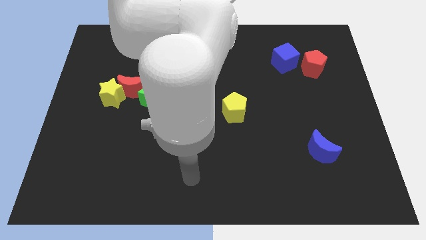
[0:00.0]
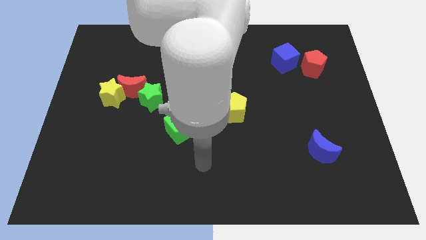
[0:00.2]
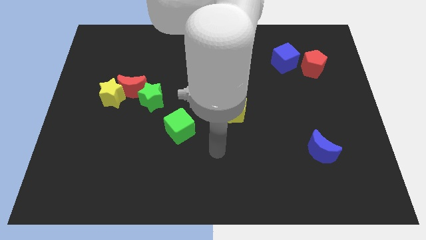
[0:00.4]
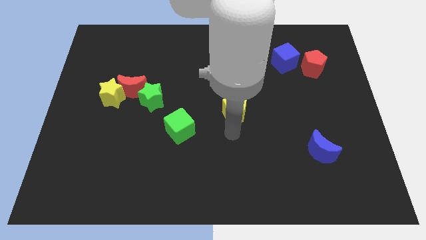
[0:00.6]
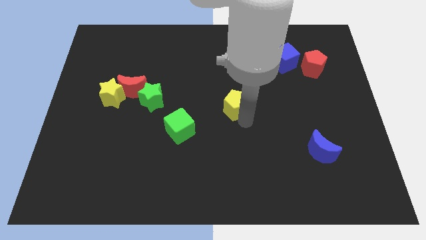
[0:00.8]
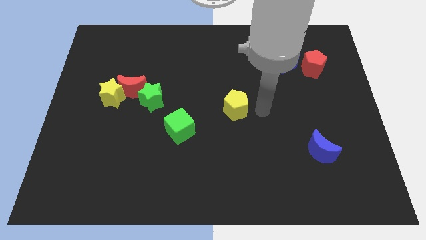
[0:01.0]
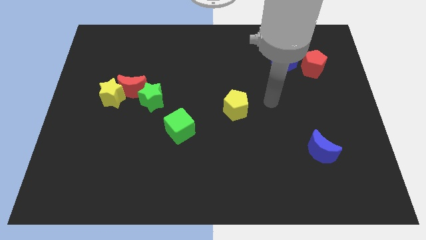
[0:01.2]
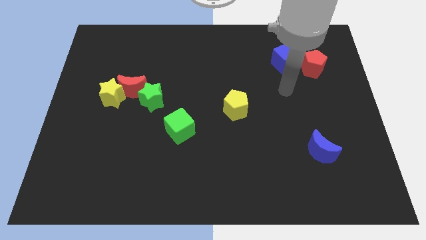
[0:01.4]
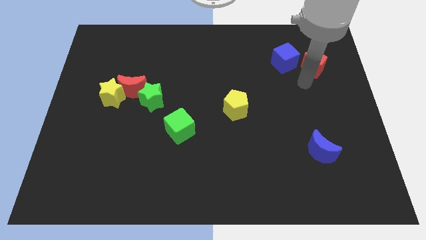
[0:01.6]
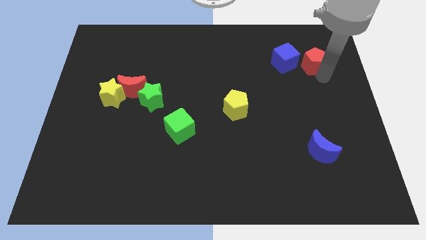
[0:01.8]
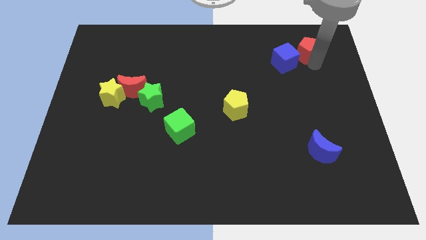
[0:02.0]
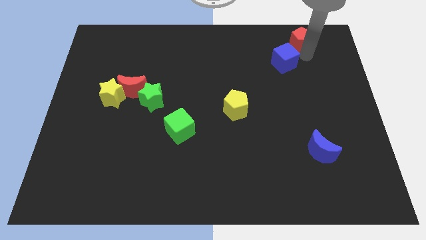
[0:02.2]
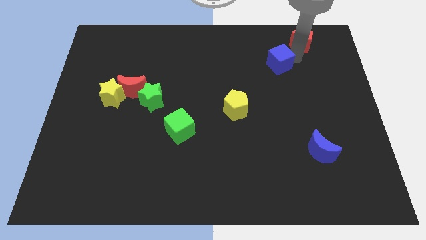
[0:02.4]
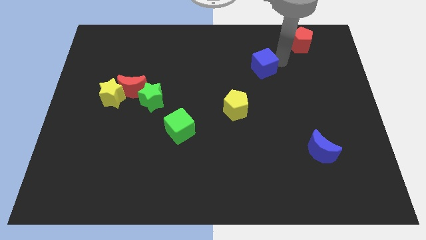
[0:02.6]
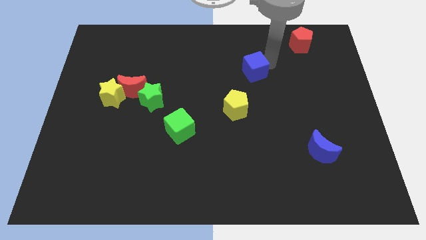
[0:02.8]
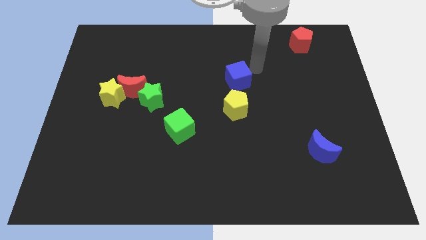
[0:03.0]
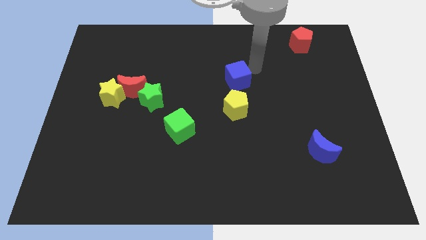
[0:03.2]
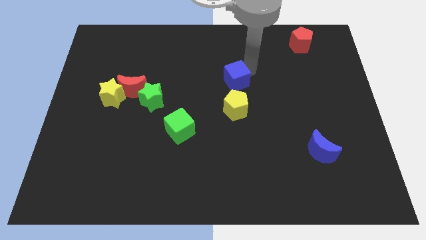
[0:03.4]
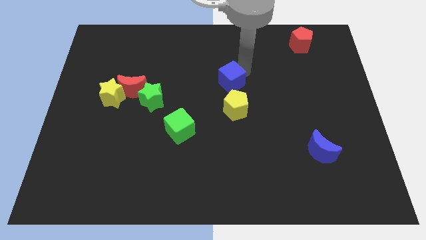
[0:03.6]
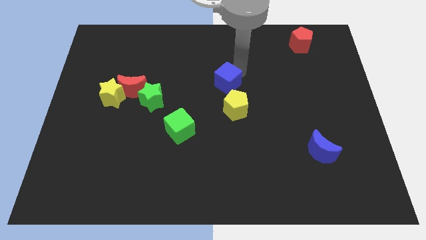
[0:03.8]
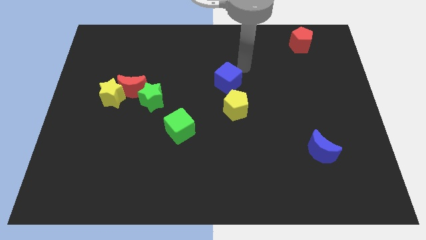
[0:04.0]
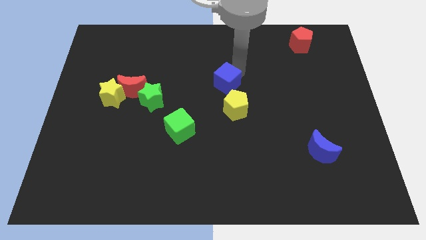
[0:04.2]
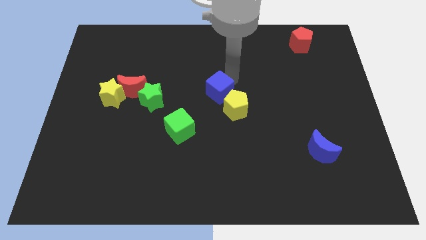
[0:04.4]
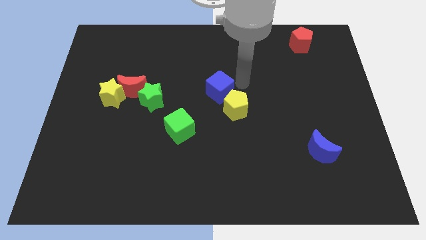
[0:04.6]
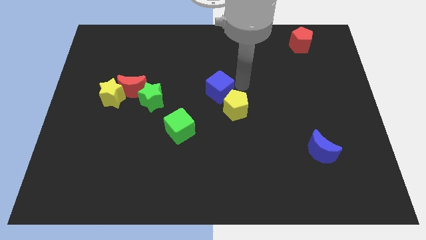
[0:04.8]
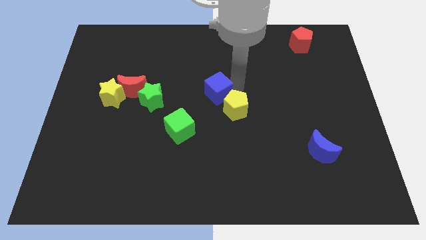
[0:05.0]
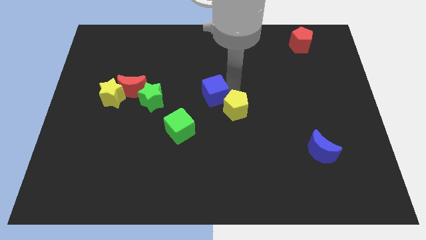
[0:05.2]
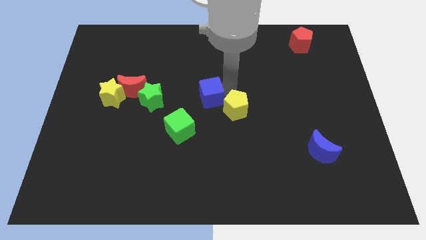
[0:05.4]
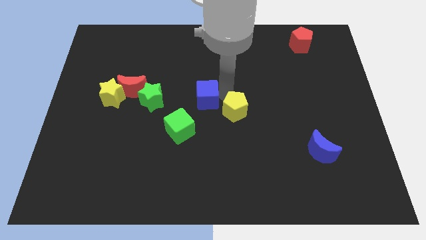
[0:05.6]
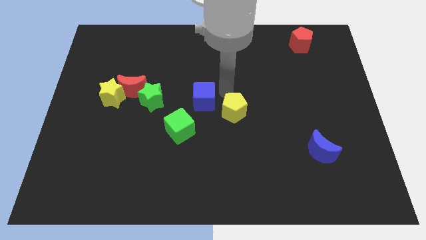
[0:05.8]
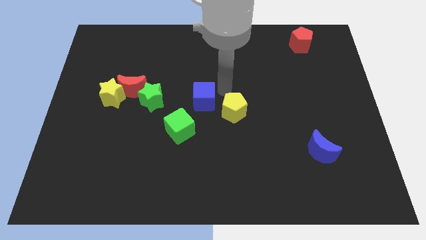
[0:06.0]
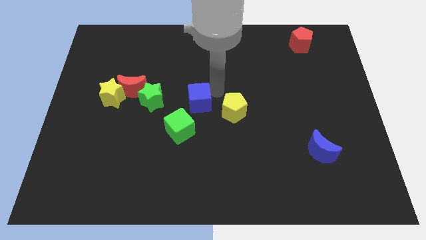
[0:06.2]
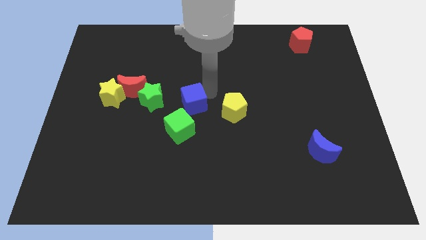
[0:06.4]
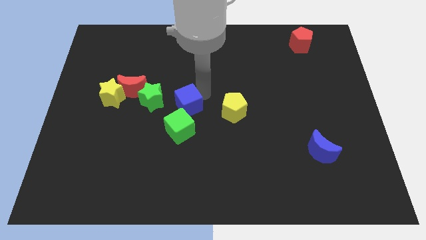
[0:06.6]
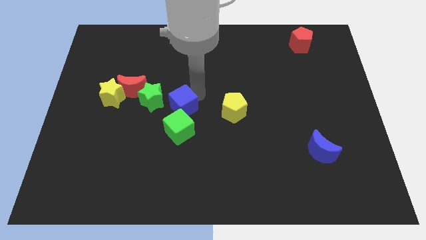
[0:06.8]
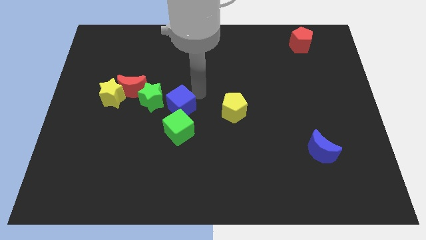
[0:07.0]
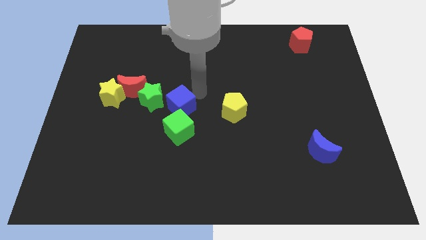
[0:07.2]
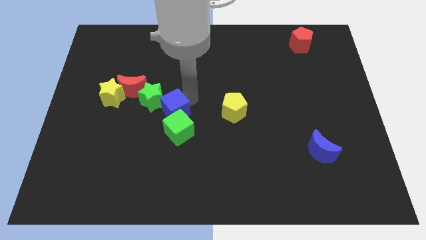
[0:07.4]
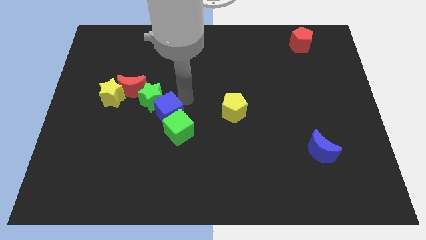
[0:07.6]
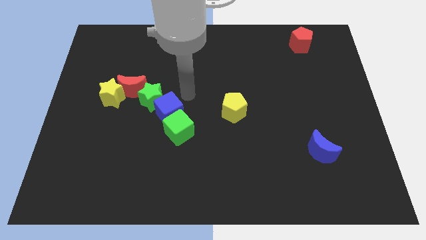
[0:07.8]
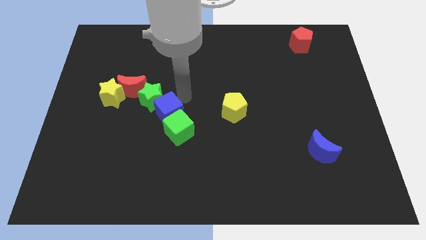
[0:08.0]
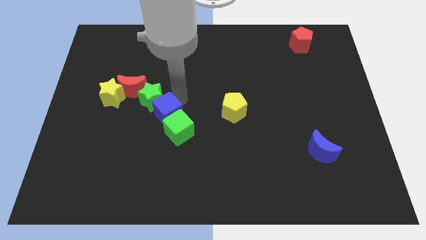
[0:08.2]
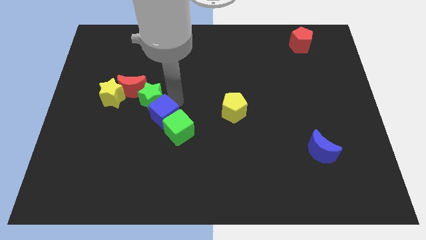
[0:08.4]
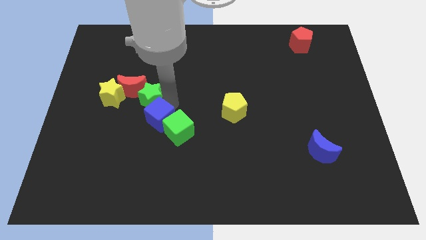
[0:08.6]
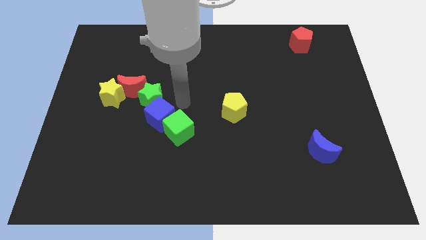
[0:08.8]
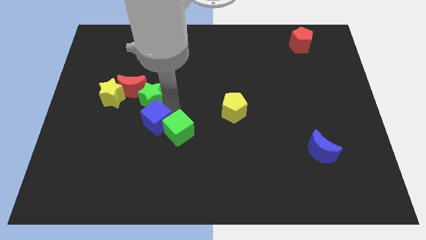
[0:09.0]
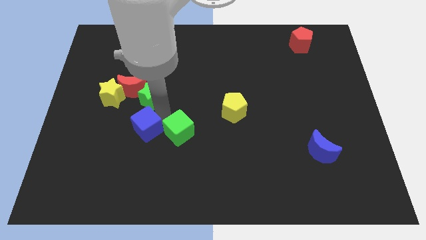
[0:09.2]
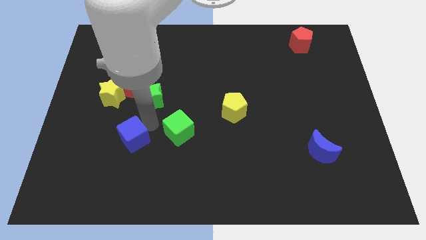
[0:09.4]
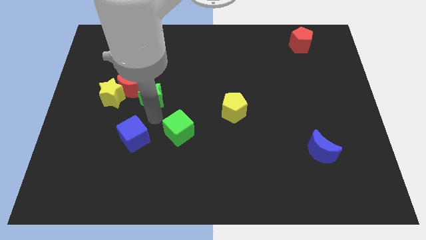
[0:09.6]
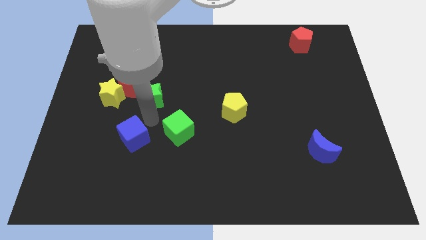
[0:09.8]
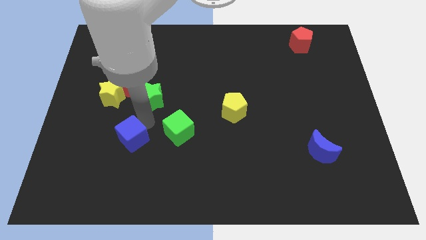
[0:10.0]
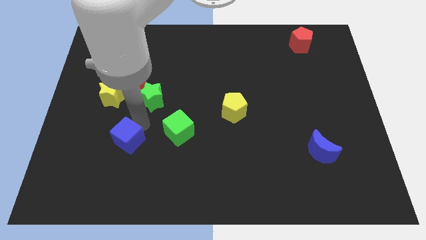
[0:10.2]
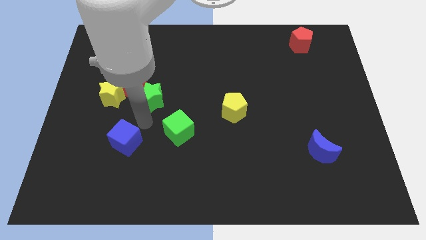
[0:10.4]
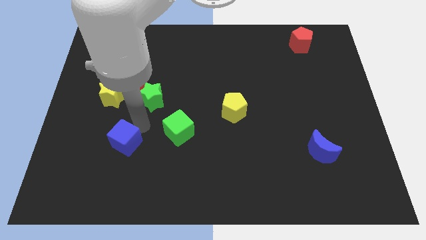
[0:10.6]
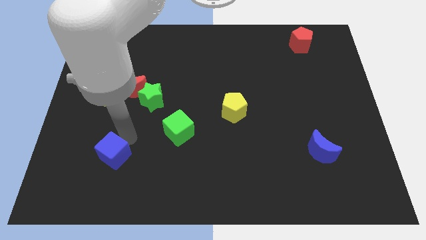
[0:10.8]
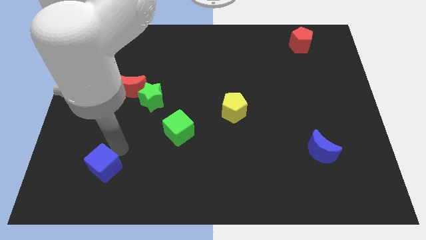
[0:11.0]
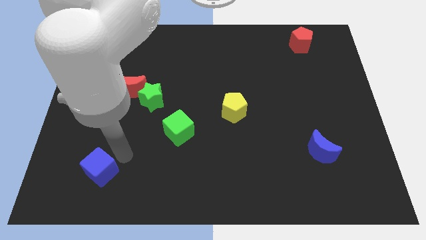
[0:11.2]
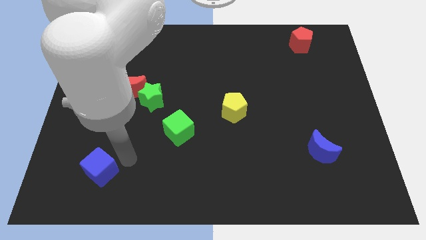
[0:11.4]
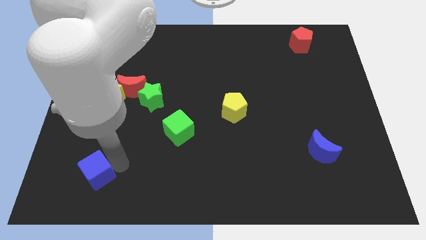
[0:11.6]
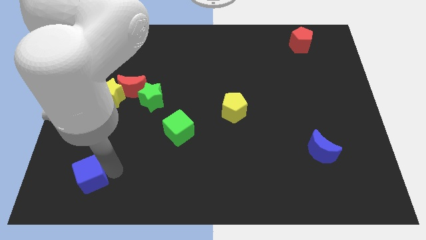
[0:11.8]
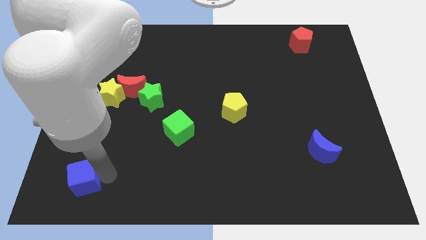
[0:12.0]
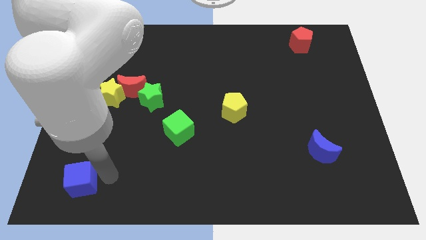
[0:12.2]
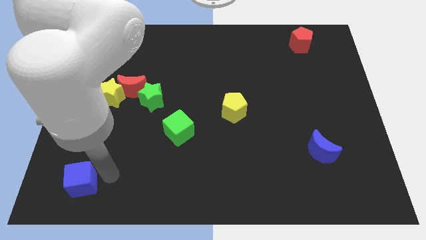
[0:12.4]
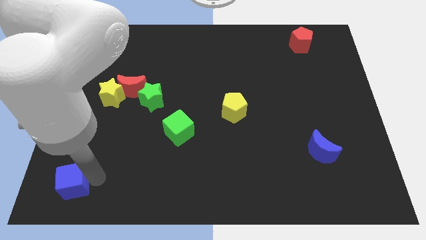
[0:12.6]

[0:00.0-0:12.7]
move the blue cube to the bottom left

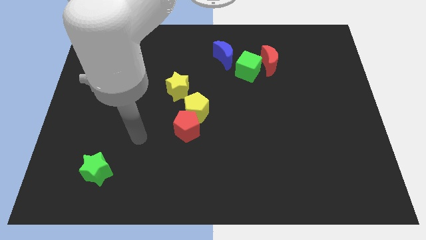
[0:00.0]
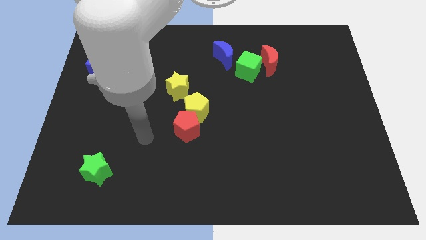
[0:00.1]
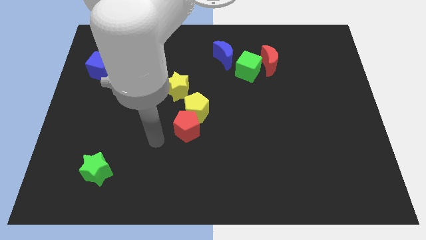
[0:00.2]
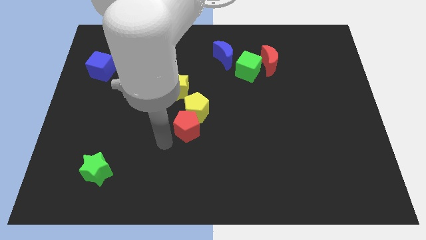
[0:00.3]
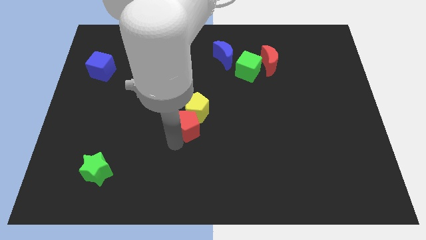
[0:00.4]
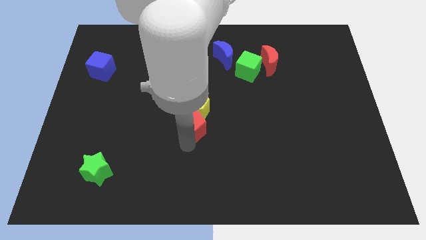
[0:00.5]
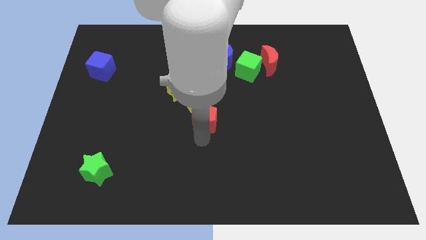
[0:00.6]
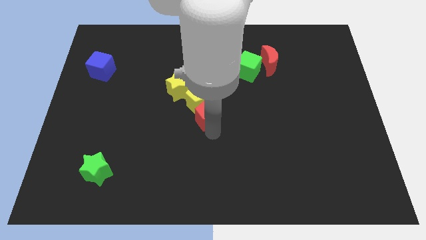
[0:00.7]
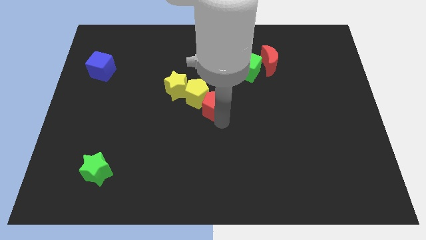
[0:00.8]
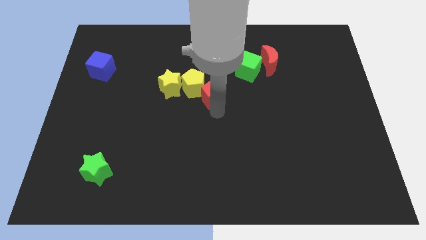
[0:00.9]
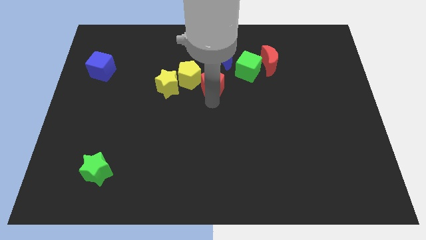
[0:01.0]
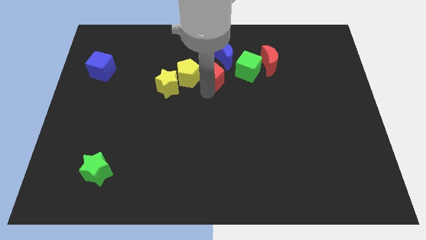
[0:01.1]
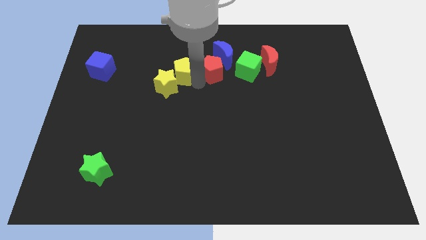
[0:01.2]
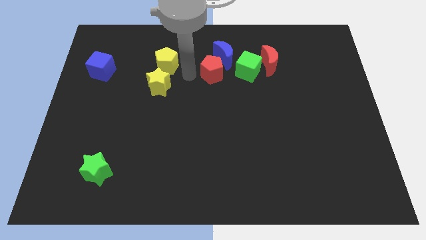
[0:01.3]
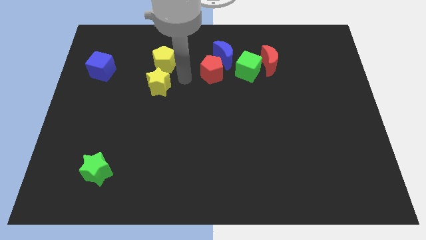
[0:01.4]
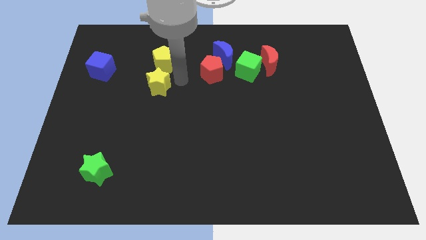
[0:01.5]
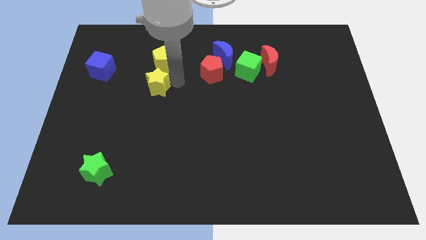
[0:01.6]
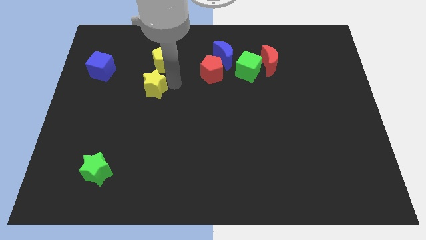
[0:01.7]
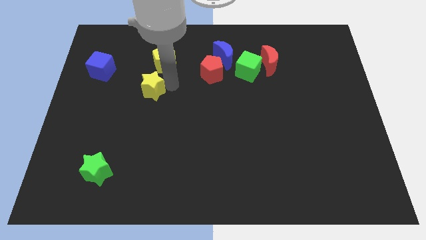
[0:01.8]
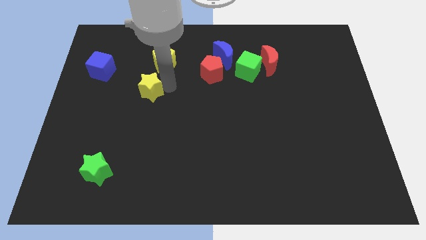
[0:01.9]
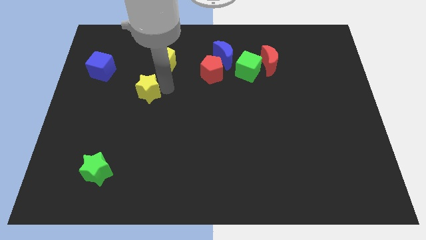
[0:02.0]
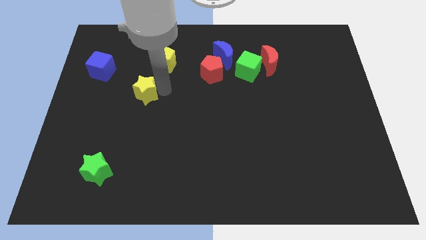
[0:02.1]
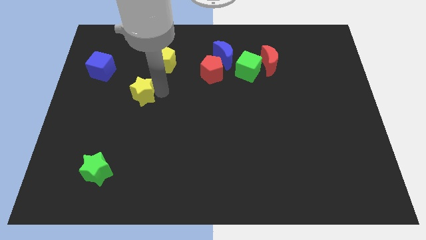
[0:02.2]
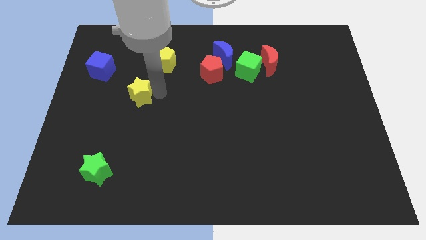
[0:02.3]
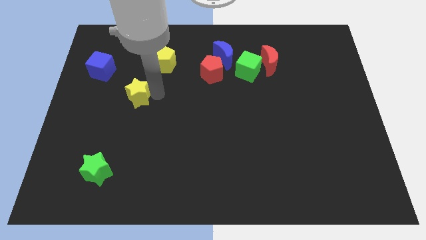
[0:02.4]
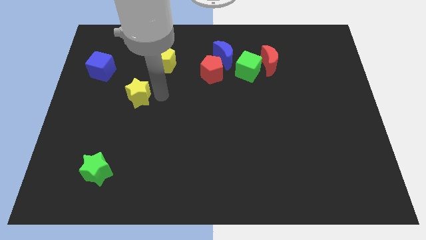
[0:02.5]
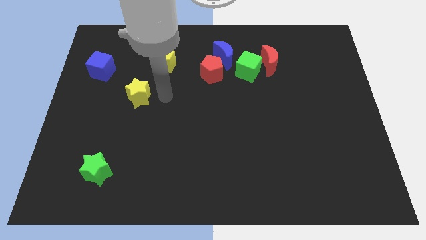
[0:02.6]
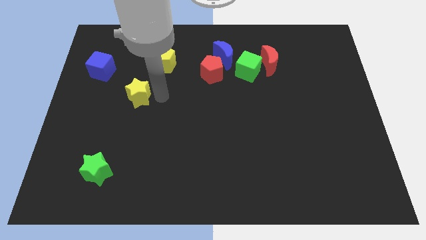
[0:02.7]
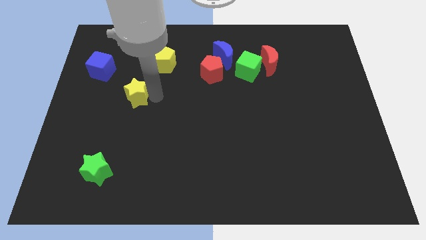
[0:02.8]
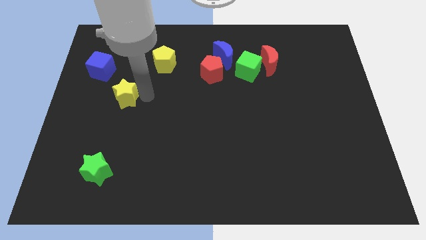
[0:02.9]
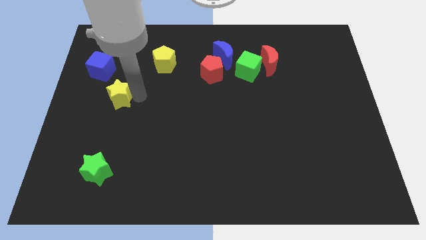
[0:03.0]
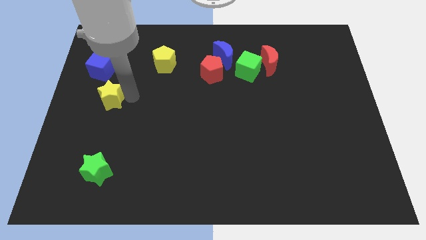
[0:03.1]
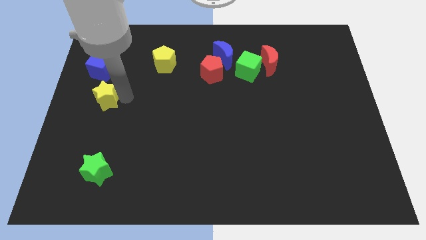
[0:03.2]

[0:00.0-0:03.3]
put the yellow star to the center left
